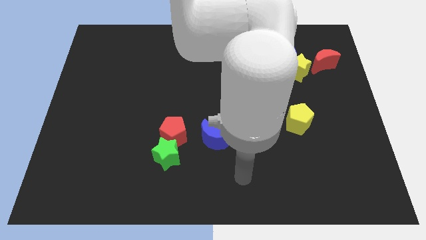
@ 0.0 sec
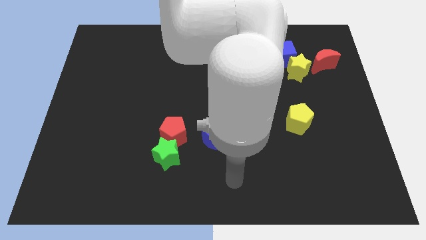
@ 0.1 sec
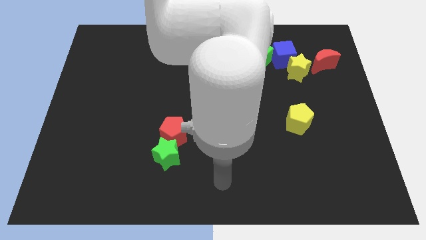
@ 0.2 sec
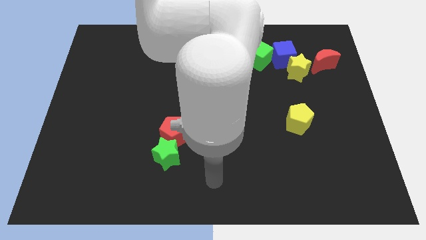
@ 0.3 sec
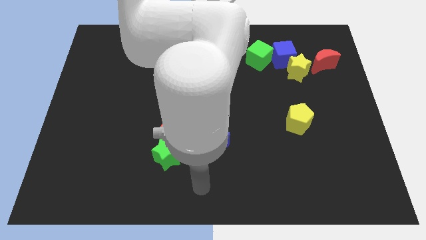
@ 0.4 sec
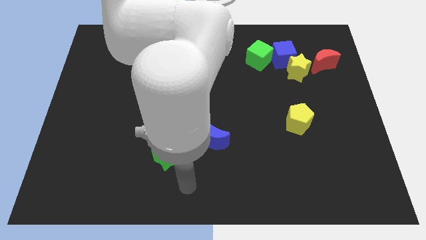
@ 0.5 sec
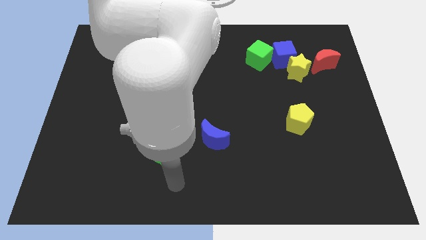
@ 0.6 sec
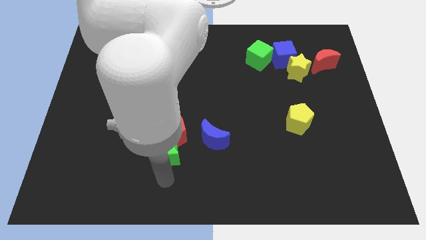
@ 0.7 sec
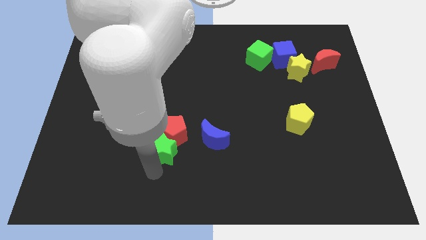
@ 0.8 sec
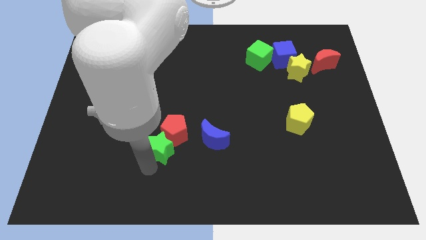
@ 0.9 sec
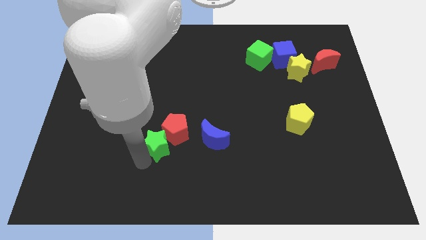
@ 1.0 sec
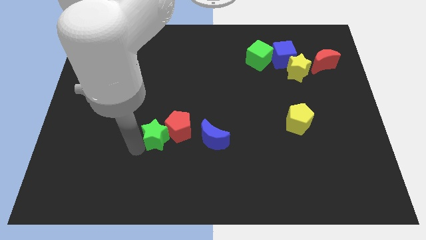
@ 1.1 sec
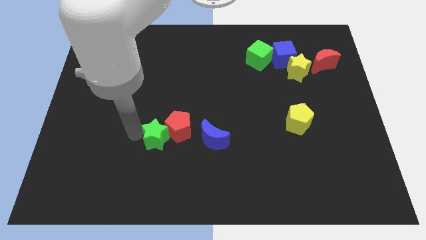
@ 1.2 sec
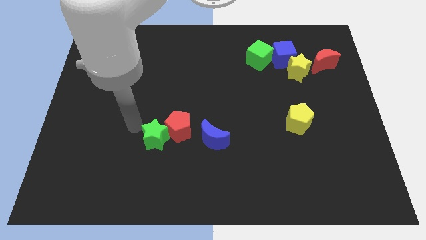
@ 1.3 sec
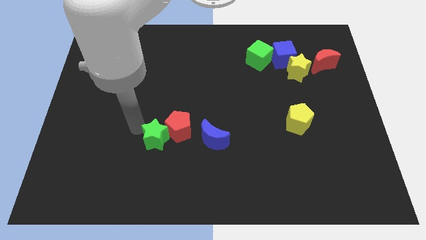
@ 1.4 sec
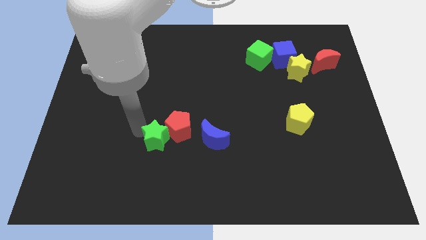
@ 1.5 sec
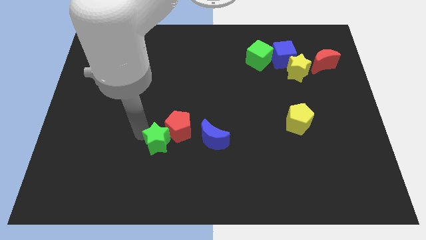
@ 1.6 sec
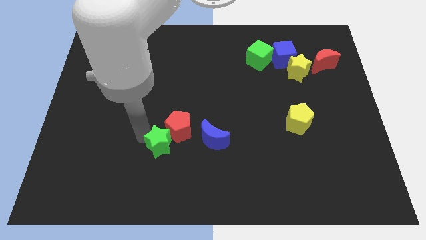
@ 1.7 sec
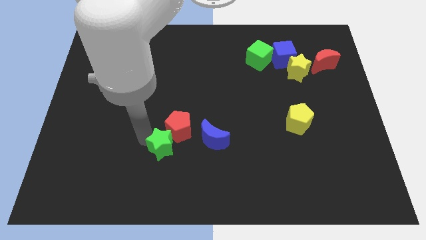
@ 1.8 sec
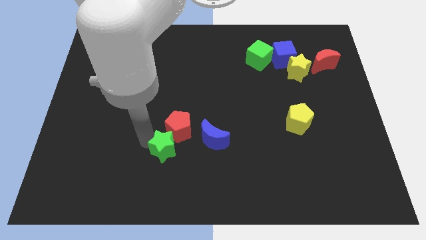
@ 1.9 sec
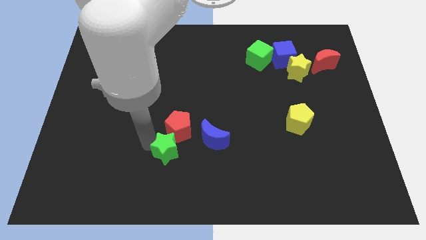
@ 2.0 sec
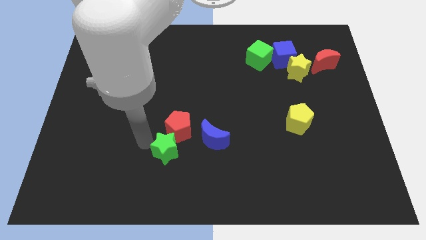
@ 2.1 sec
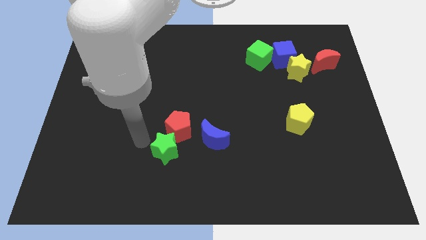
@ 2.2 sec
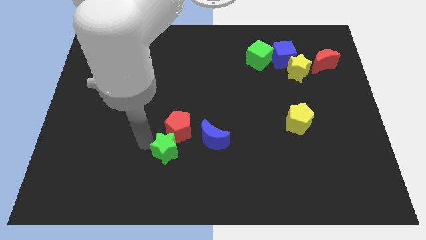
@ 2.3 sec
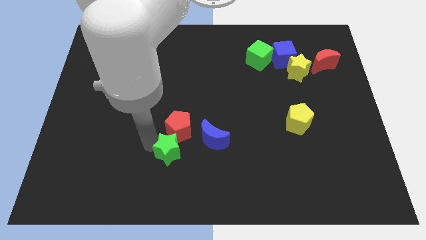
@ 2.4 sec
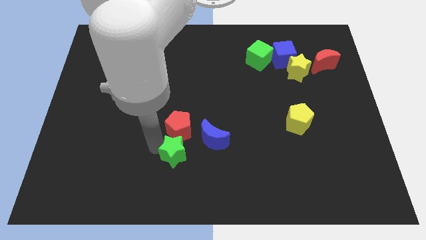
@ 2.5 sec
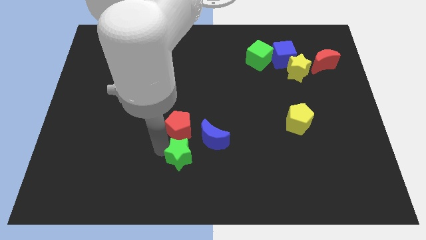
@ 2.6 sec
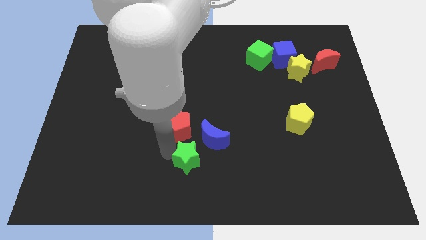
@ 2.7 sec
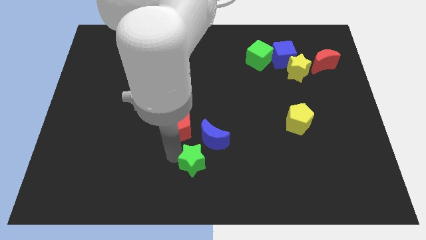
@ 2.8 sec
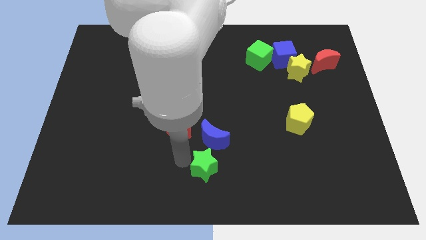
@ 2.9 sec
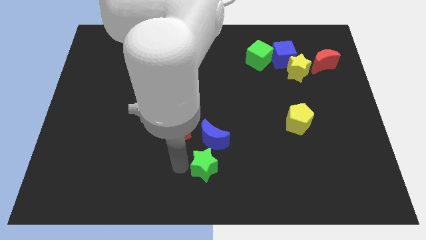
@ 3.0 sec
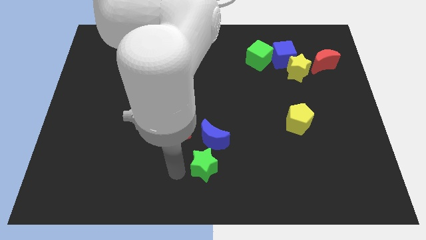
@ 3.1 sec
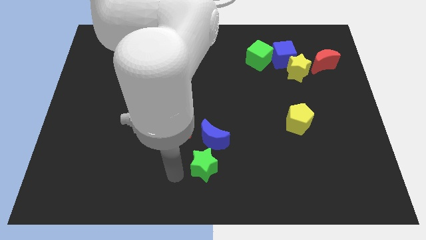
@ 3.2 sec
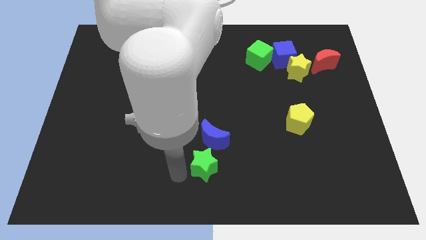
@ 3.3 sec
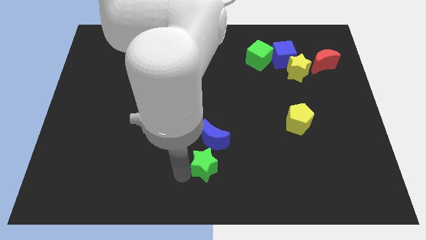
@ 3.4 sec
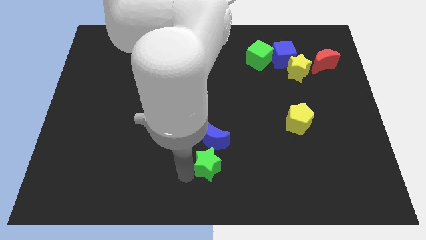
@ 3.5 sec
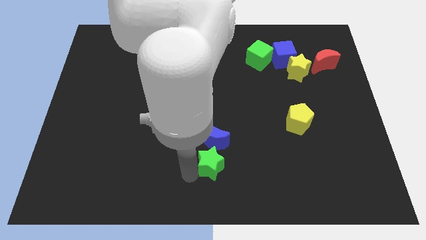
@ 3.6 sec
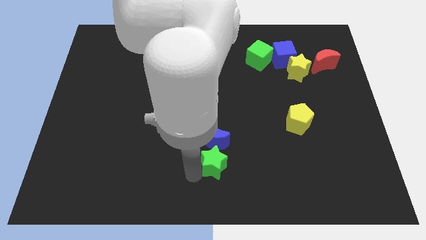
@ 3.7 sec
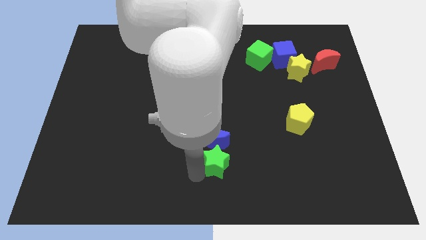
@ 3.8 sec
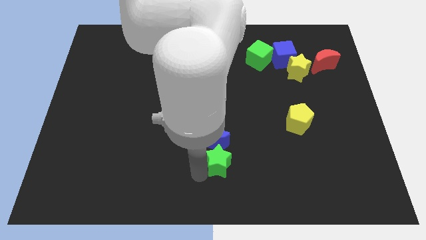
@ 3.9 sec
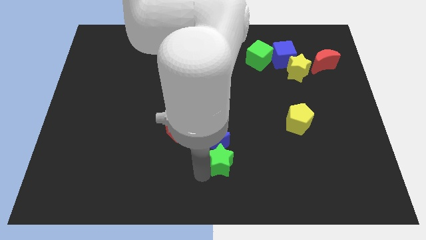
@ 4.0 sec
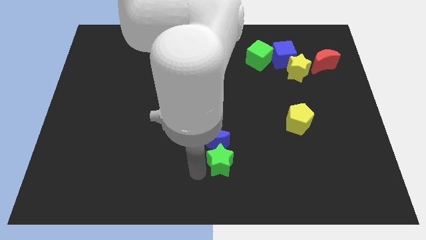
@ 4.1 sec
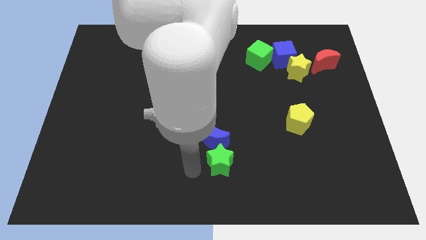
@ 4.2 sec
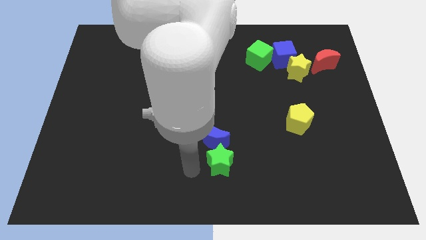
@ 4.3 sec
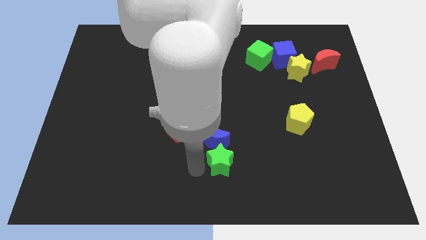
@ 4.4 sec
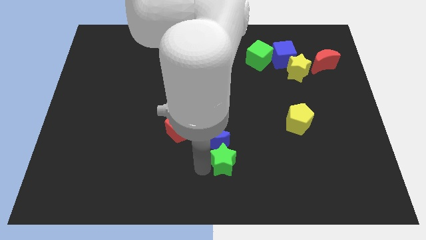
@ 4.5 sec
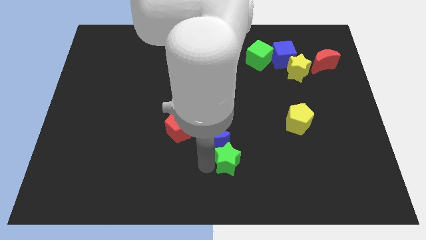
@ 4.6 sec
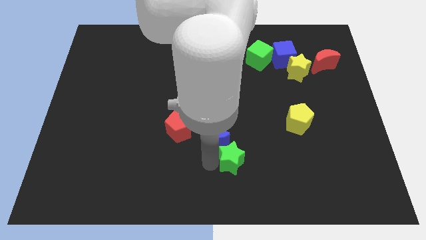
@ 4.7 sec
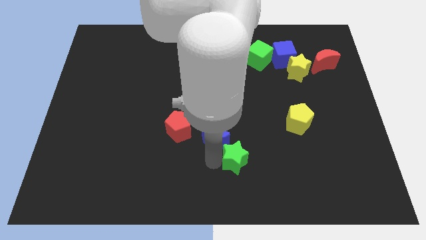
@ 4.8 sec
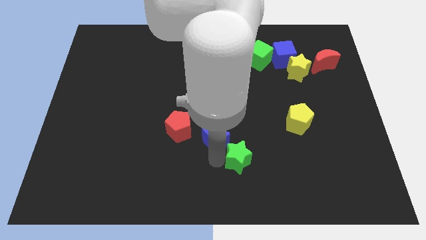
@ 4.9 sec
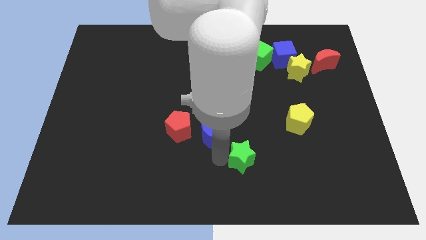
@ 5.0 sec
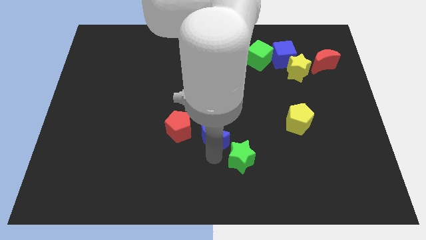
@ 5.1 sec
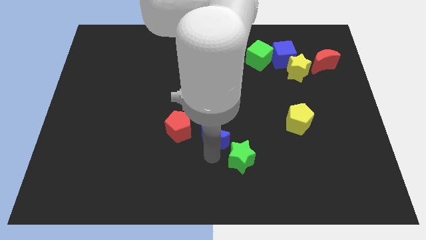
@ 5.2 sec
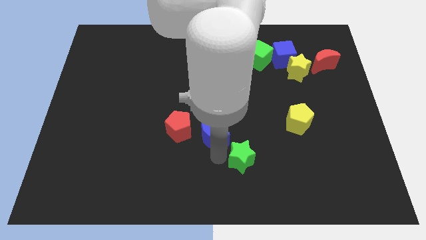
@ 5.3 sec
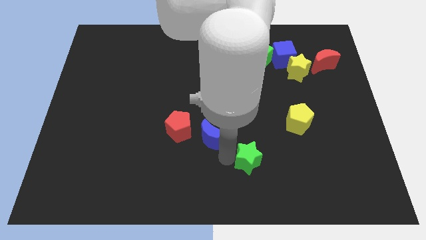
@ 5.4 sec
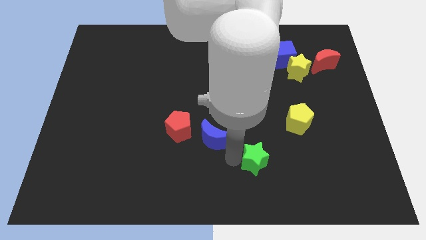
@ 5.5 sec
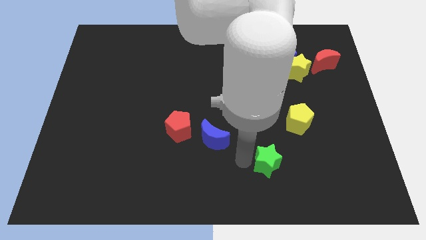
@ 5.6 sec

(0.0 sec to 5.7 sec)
move the green star to the right

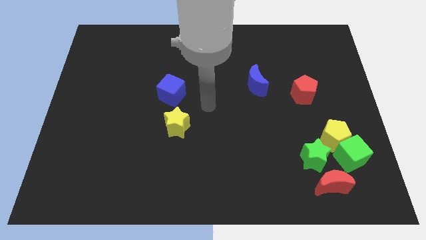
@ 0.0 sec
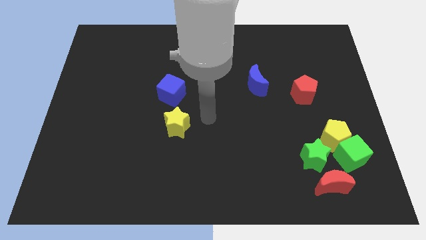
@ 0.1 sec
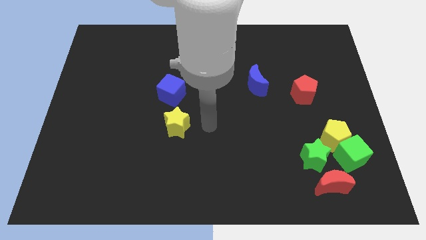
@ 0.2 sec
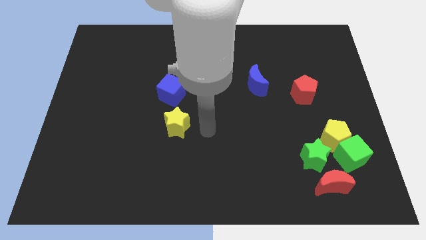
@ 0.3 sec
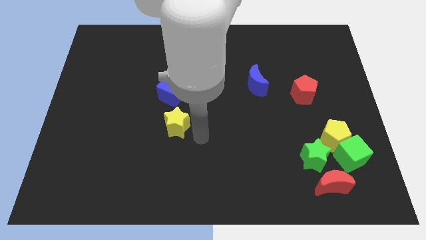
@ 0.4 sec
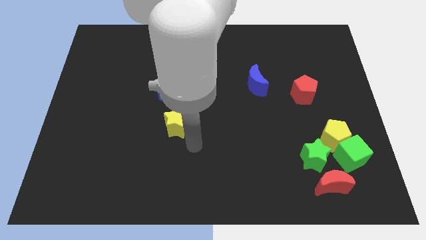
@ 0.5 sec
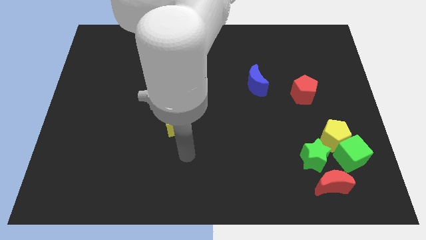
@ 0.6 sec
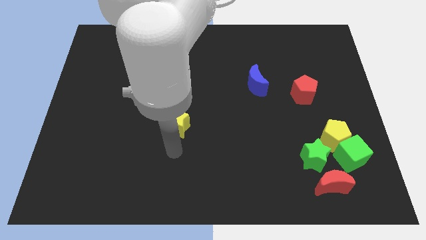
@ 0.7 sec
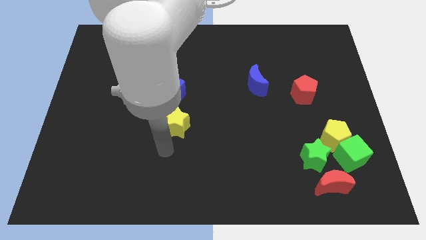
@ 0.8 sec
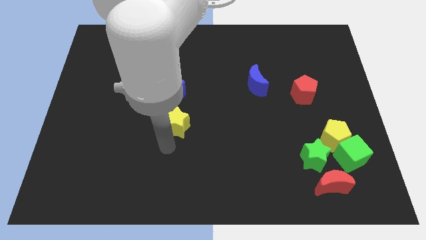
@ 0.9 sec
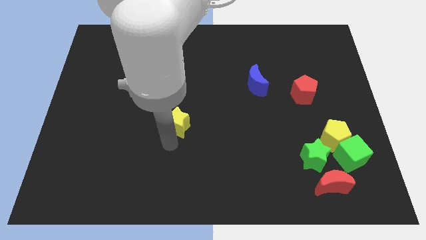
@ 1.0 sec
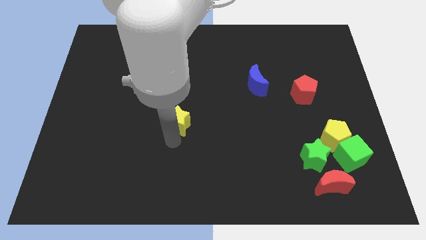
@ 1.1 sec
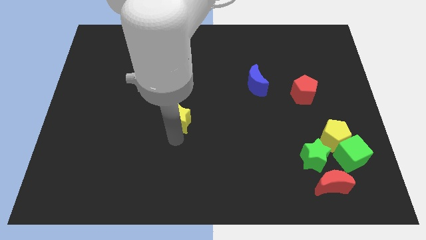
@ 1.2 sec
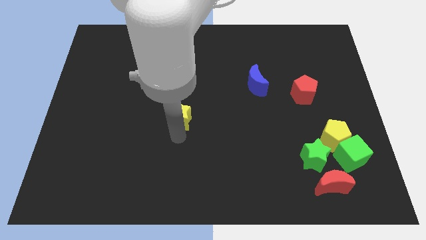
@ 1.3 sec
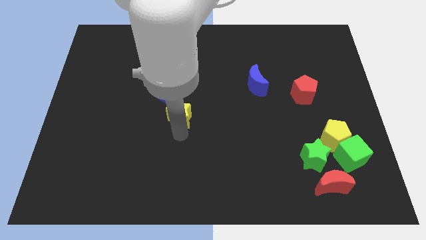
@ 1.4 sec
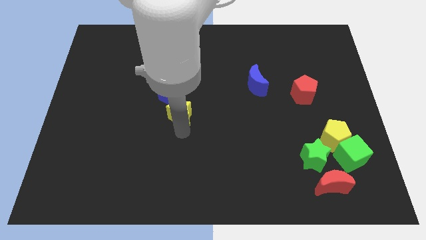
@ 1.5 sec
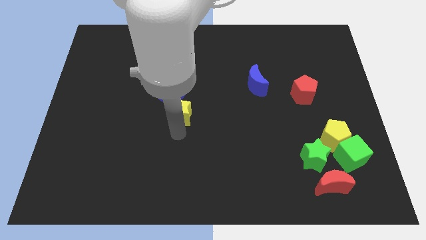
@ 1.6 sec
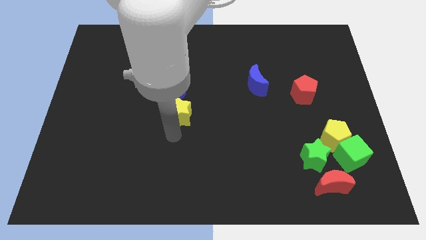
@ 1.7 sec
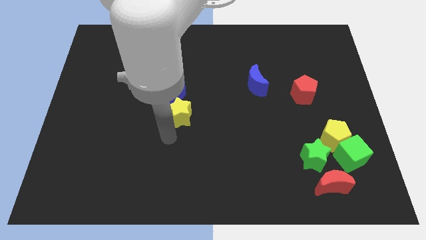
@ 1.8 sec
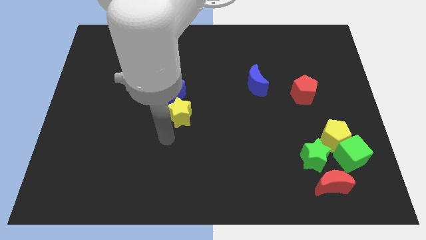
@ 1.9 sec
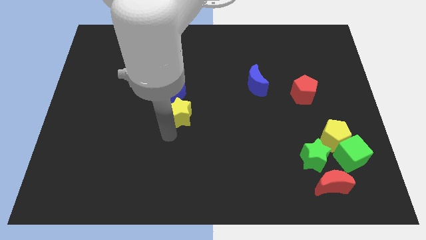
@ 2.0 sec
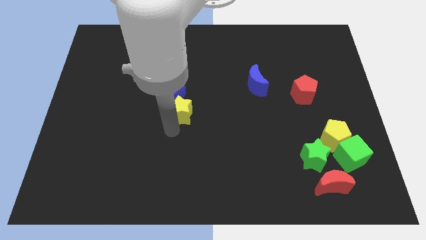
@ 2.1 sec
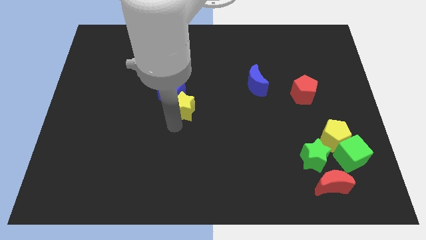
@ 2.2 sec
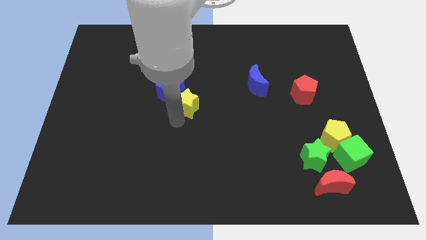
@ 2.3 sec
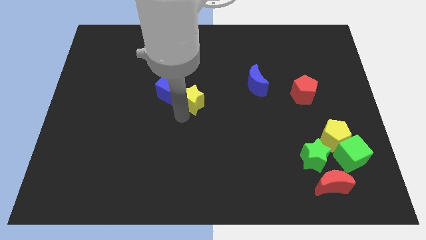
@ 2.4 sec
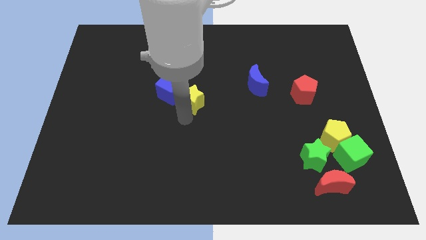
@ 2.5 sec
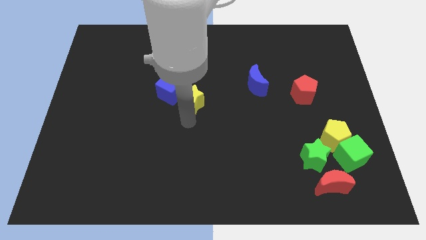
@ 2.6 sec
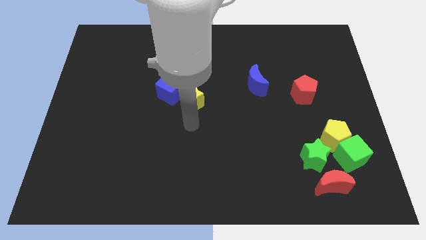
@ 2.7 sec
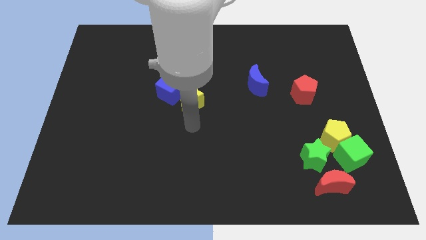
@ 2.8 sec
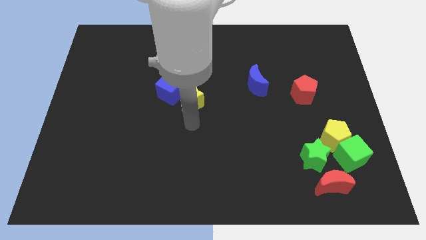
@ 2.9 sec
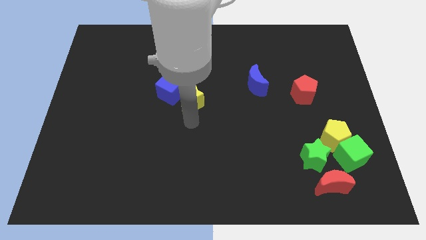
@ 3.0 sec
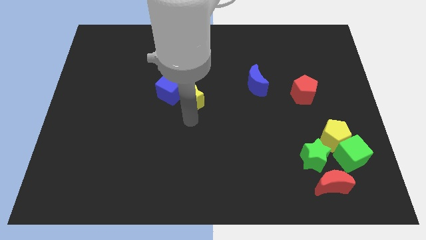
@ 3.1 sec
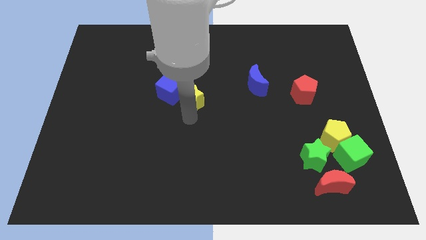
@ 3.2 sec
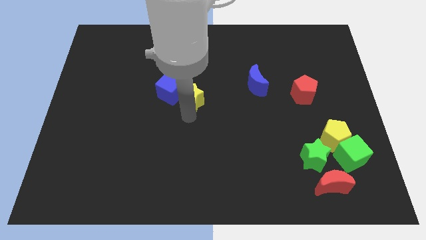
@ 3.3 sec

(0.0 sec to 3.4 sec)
slide the yellow star up slightly
